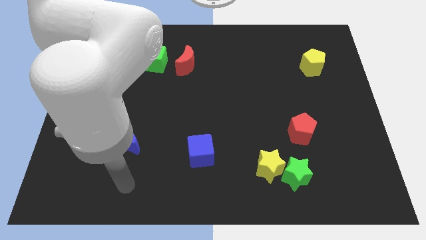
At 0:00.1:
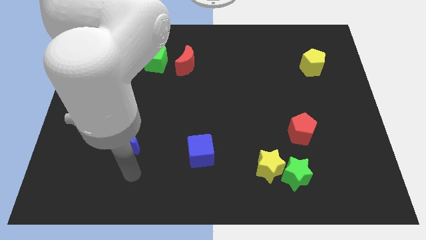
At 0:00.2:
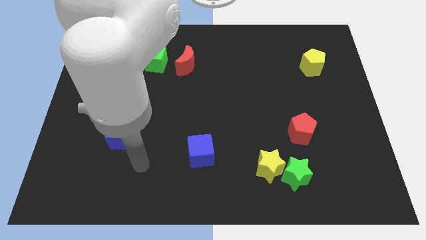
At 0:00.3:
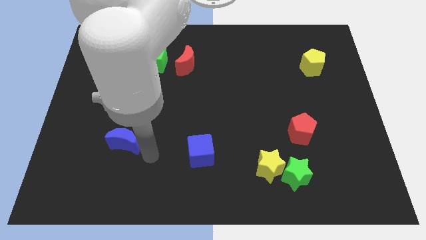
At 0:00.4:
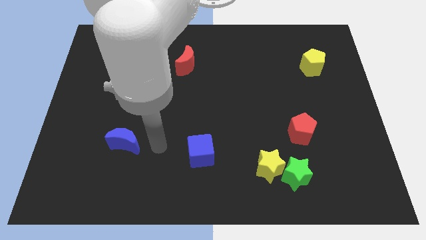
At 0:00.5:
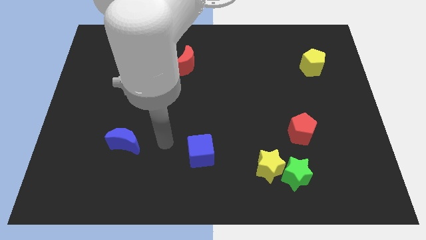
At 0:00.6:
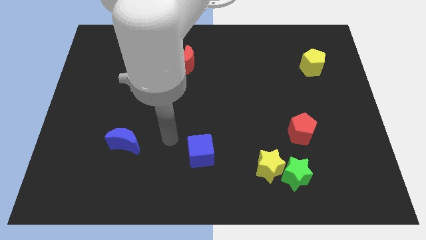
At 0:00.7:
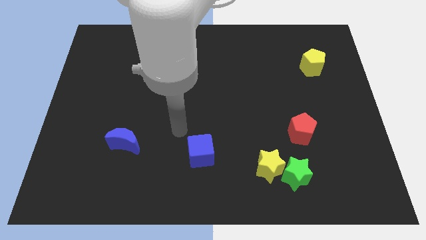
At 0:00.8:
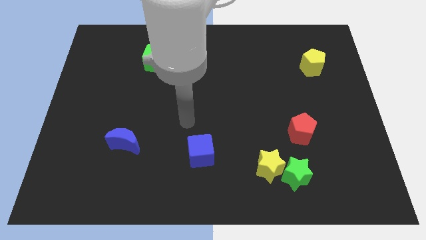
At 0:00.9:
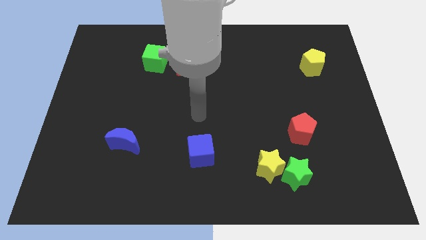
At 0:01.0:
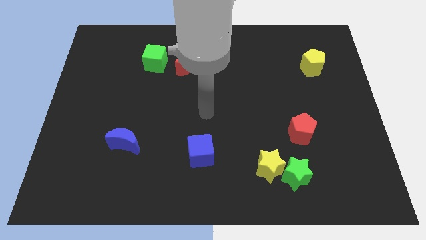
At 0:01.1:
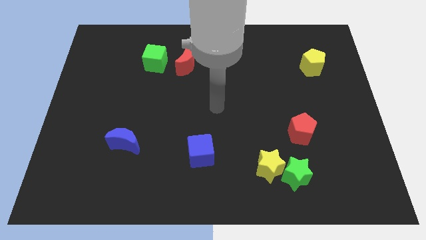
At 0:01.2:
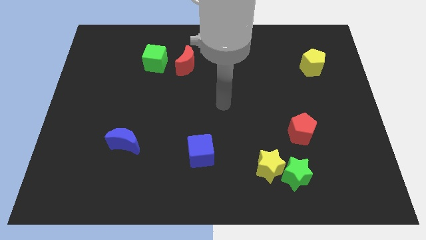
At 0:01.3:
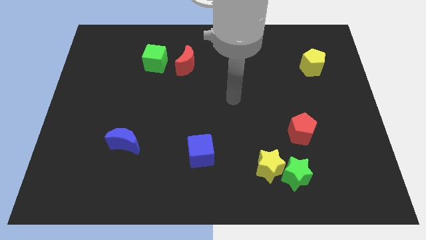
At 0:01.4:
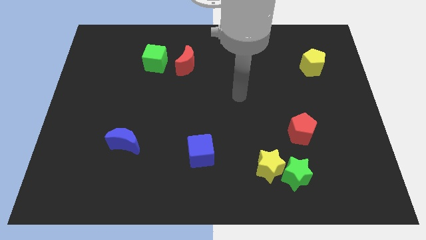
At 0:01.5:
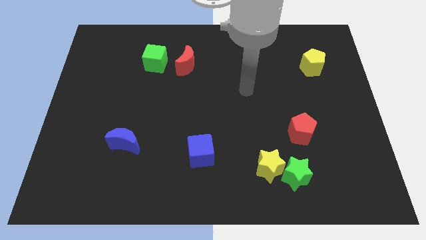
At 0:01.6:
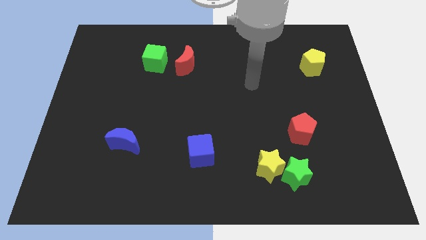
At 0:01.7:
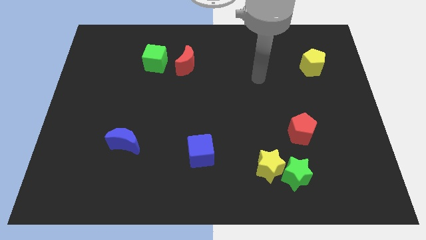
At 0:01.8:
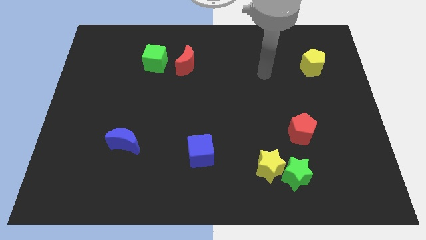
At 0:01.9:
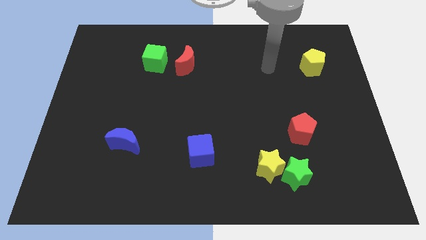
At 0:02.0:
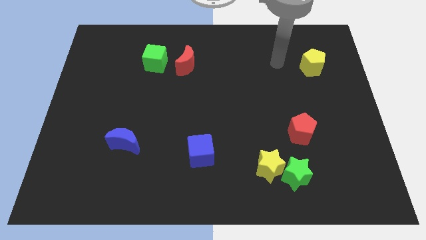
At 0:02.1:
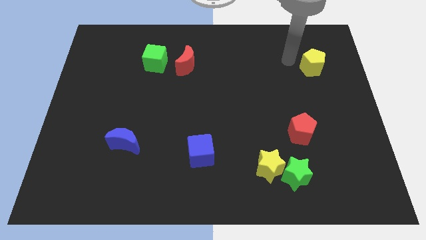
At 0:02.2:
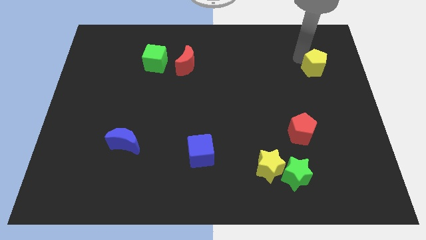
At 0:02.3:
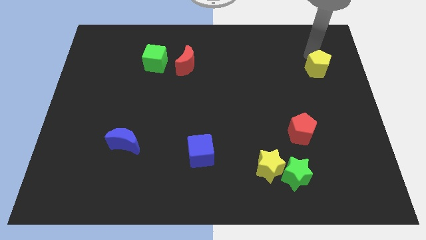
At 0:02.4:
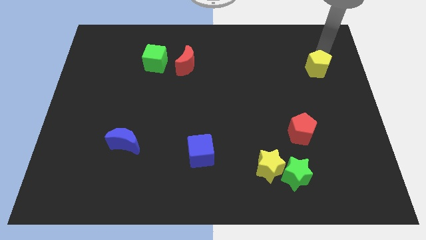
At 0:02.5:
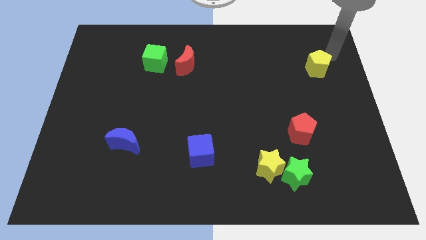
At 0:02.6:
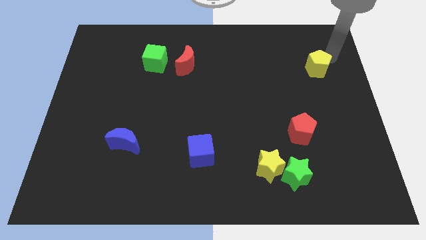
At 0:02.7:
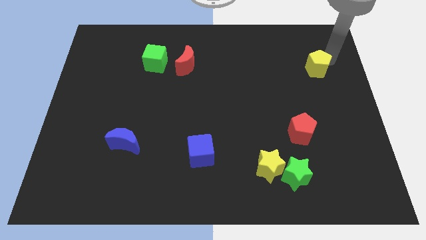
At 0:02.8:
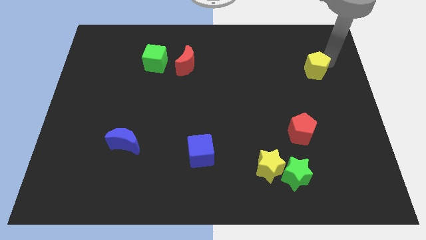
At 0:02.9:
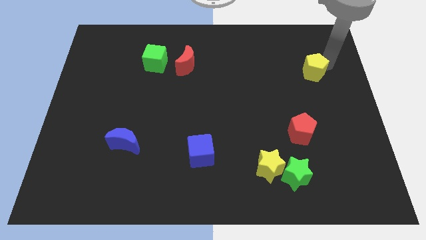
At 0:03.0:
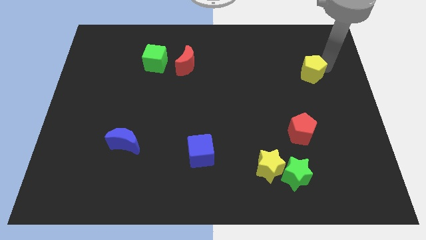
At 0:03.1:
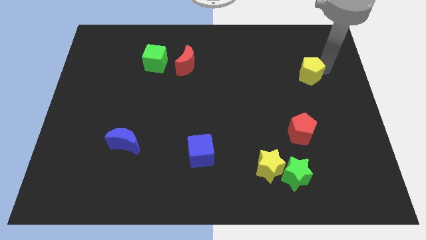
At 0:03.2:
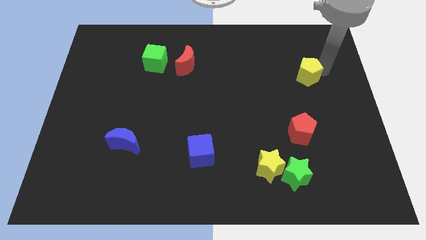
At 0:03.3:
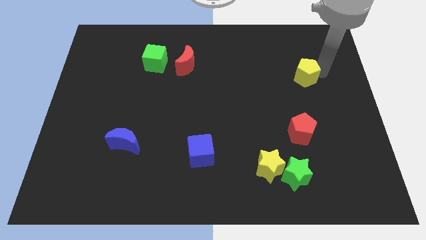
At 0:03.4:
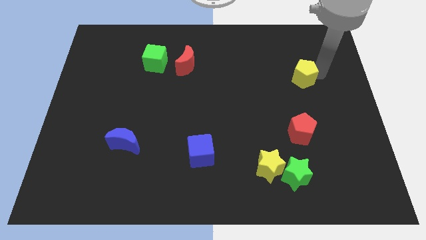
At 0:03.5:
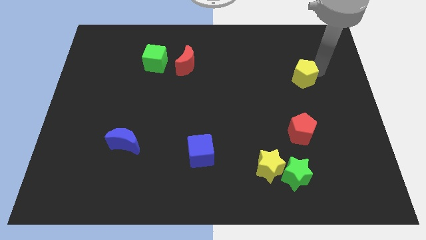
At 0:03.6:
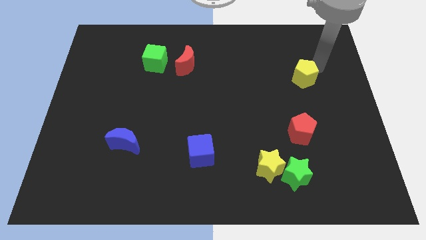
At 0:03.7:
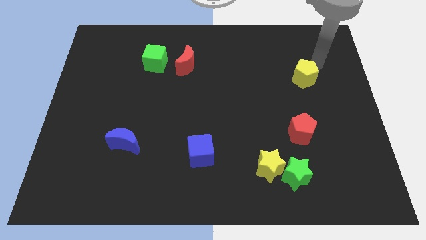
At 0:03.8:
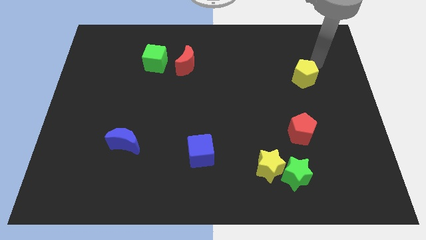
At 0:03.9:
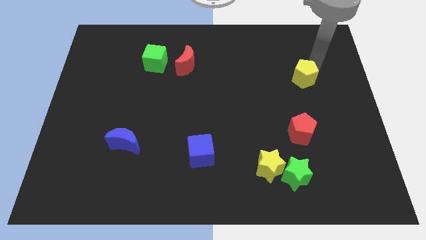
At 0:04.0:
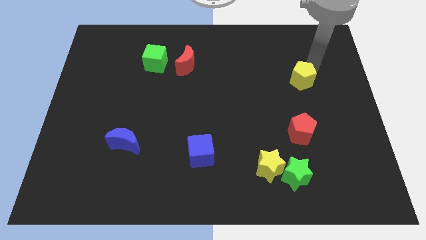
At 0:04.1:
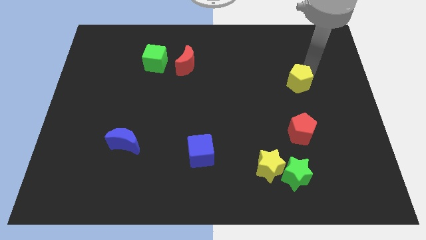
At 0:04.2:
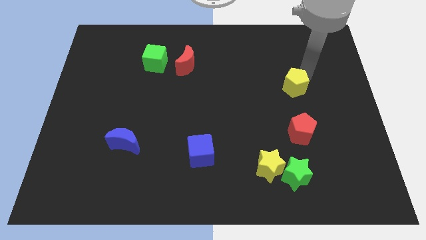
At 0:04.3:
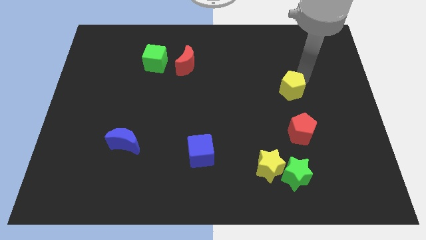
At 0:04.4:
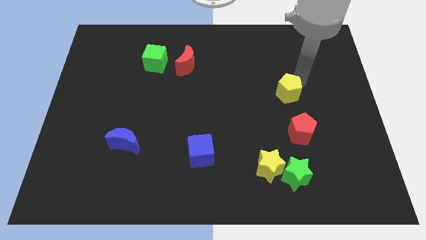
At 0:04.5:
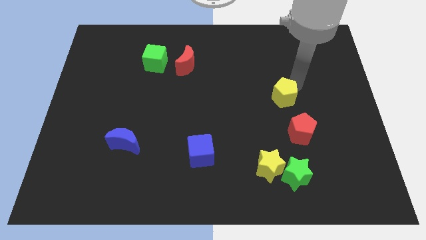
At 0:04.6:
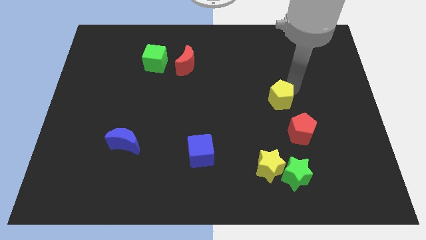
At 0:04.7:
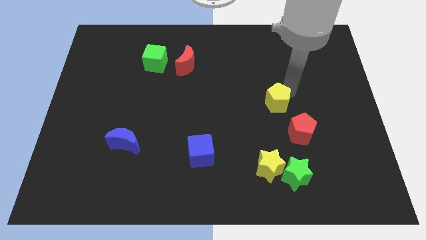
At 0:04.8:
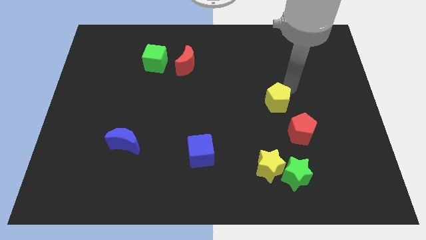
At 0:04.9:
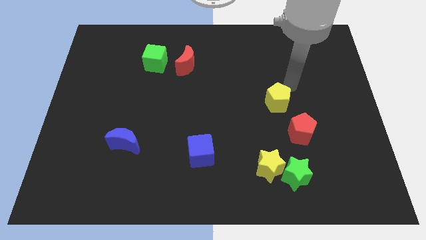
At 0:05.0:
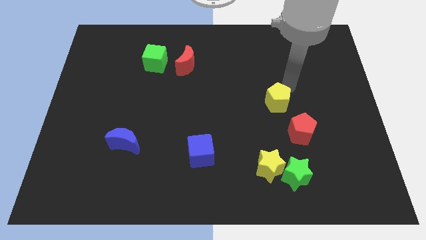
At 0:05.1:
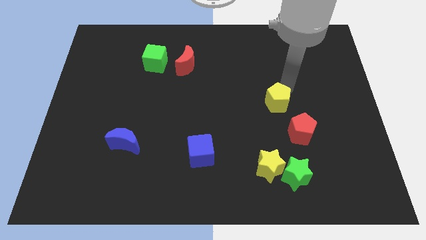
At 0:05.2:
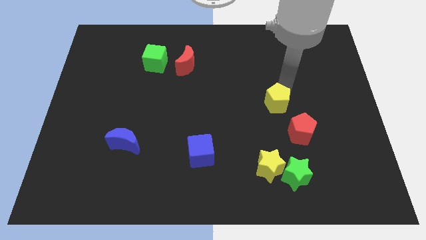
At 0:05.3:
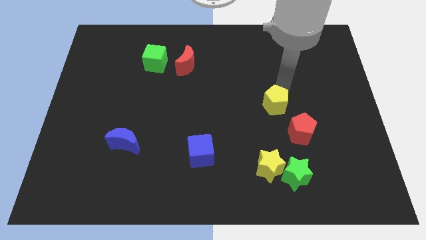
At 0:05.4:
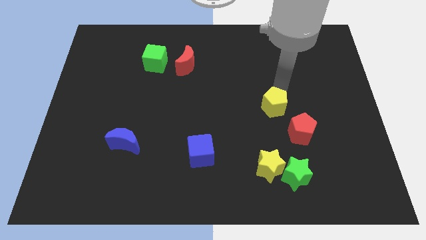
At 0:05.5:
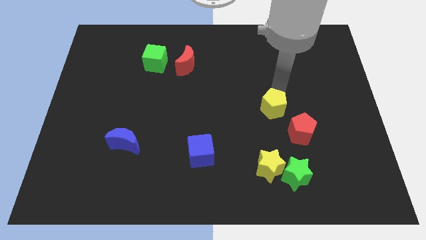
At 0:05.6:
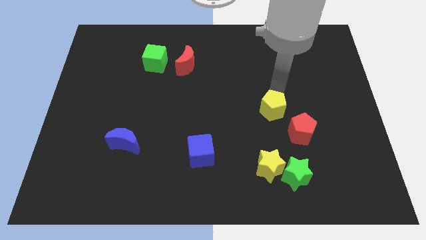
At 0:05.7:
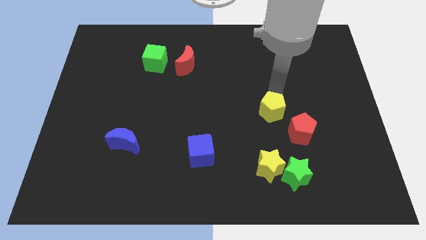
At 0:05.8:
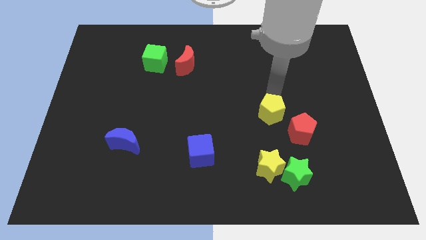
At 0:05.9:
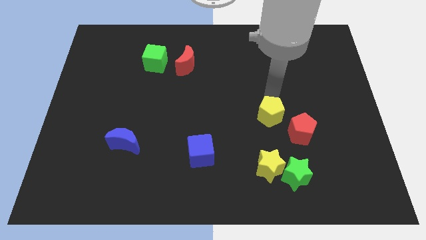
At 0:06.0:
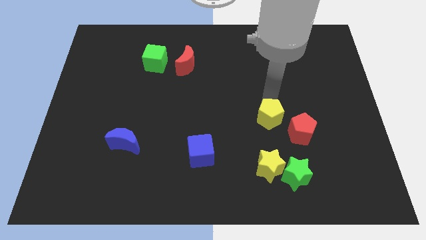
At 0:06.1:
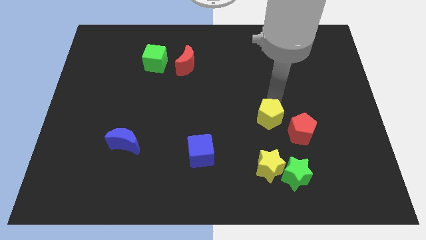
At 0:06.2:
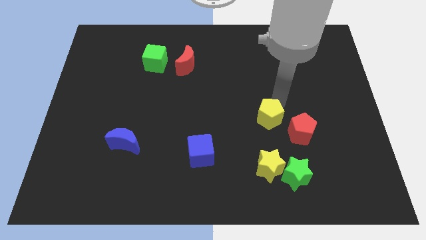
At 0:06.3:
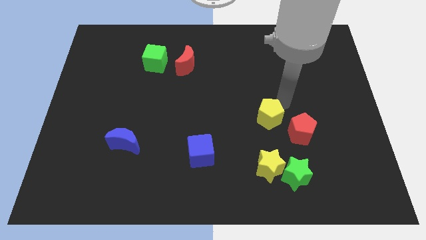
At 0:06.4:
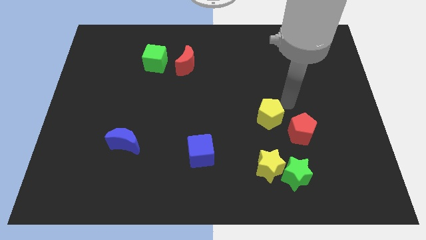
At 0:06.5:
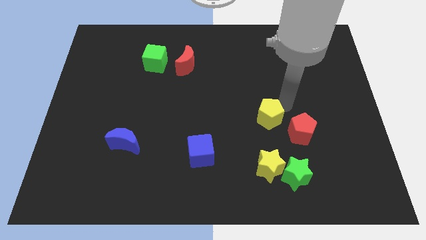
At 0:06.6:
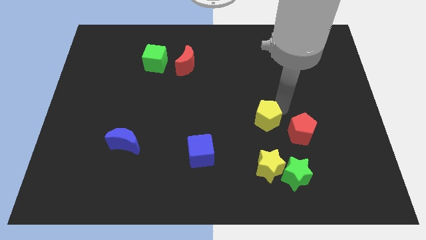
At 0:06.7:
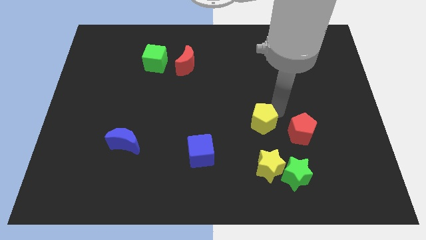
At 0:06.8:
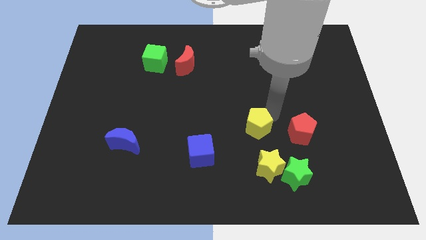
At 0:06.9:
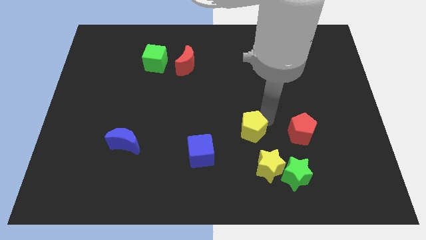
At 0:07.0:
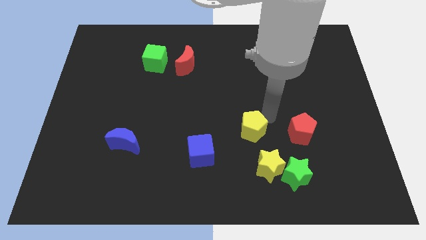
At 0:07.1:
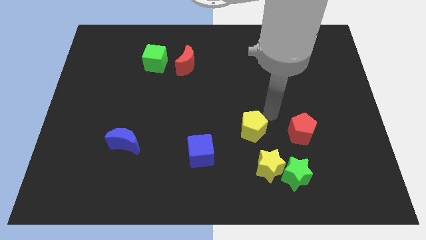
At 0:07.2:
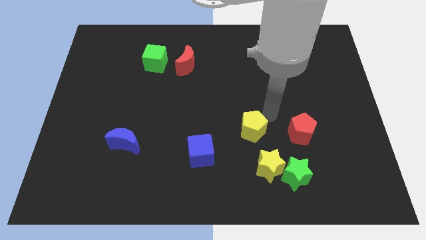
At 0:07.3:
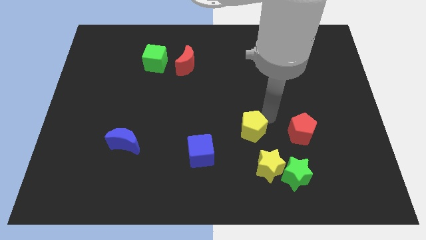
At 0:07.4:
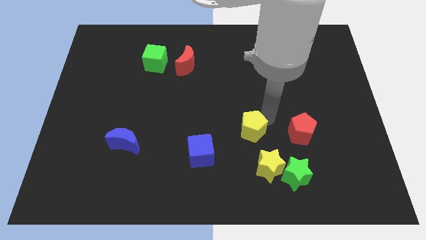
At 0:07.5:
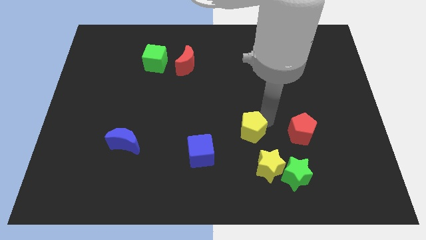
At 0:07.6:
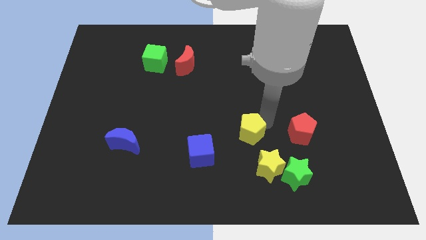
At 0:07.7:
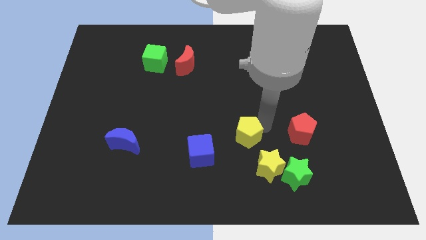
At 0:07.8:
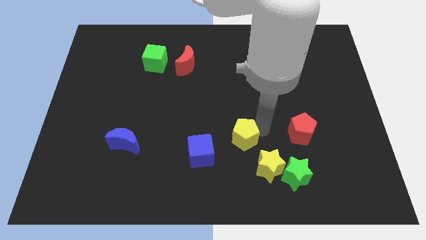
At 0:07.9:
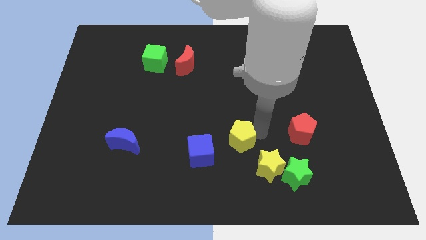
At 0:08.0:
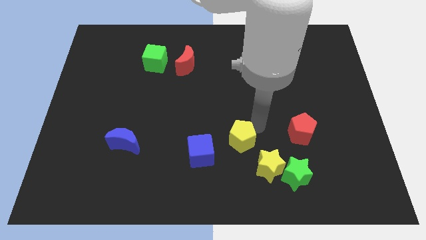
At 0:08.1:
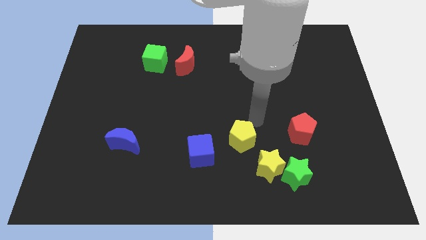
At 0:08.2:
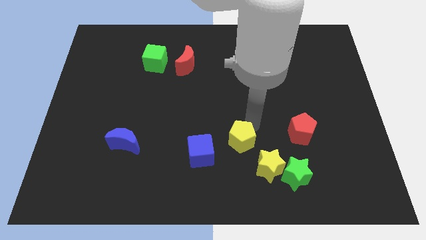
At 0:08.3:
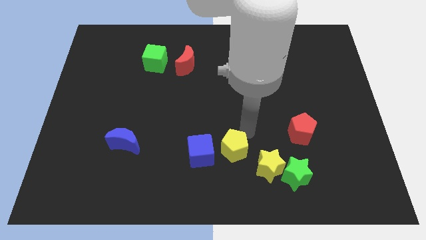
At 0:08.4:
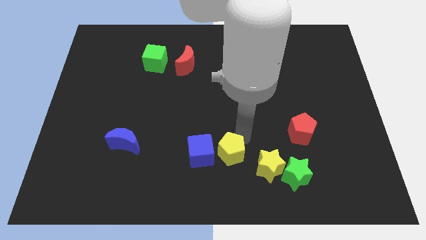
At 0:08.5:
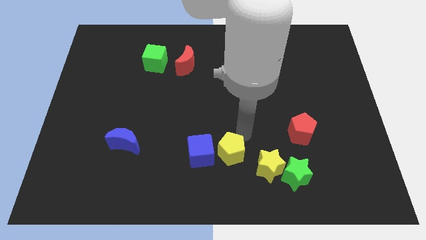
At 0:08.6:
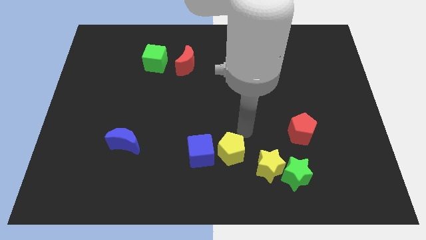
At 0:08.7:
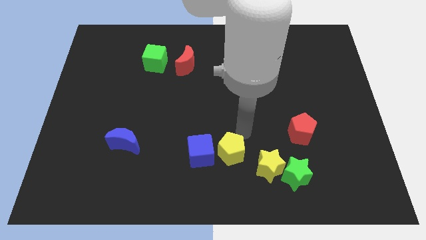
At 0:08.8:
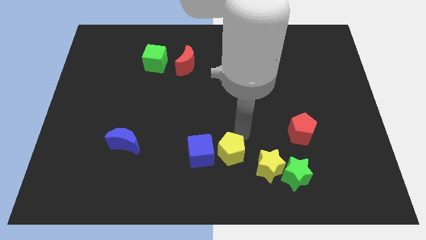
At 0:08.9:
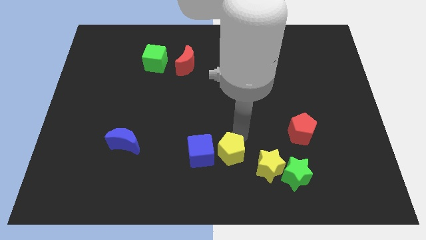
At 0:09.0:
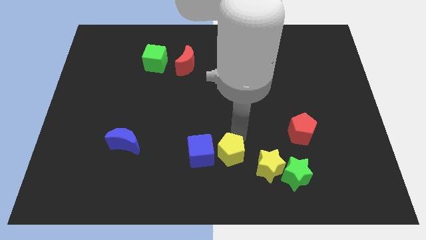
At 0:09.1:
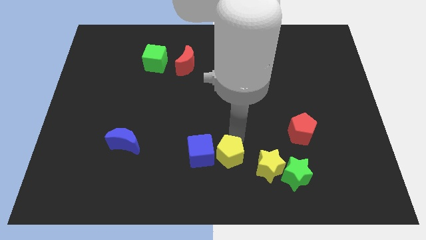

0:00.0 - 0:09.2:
push the yellow pentagon to the bottom
